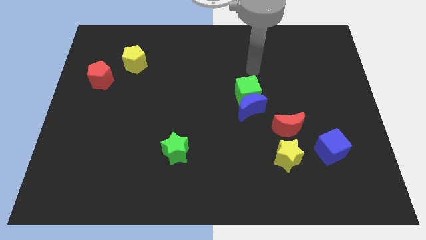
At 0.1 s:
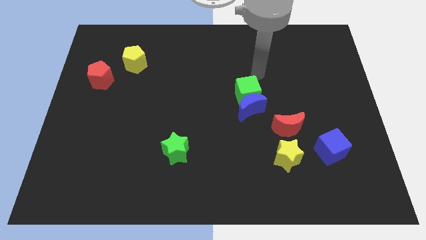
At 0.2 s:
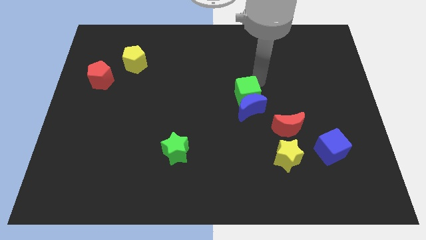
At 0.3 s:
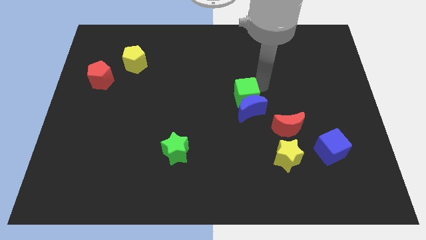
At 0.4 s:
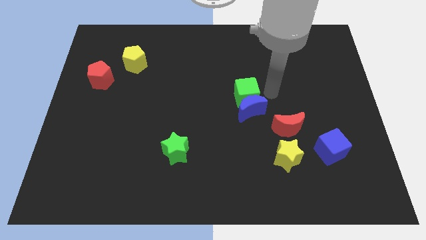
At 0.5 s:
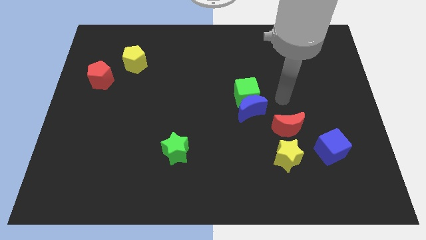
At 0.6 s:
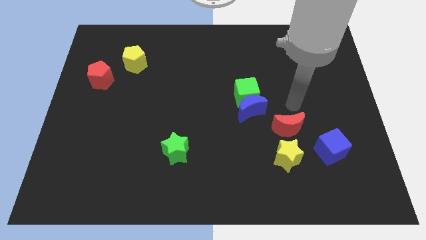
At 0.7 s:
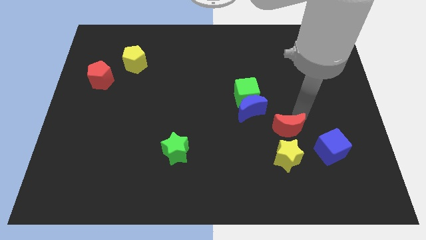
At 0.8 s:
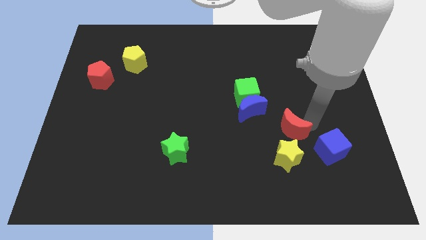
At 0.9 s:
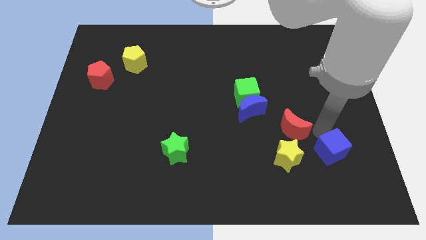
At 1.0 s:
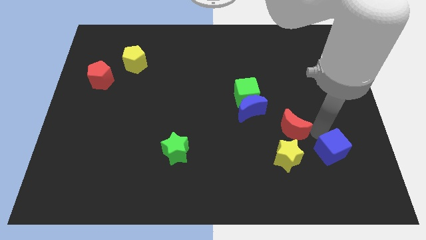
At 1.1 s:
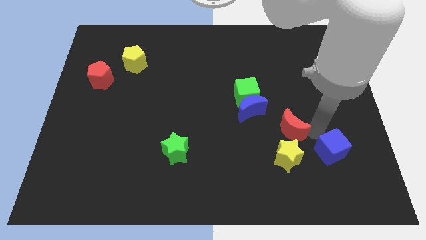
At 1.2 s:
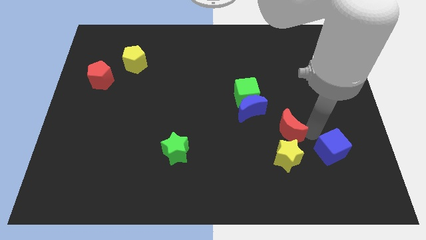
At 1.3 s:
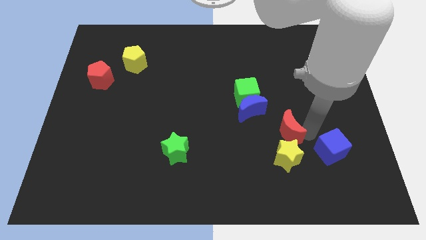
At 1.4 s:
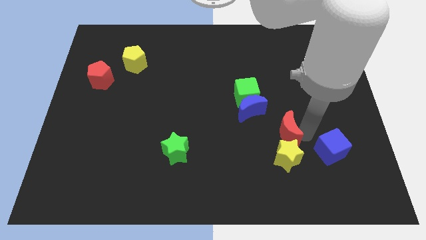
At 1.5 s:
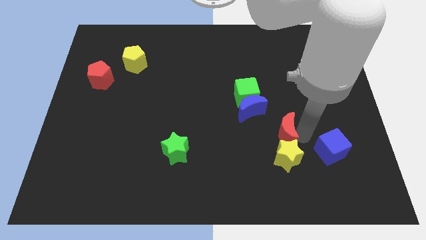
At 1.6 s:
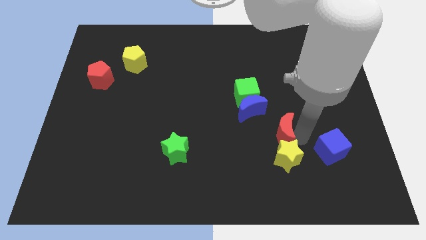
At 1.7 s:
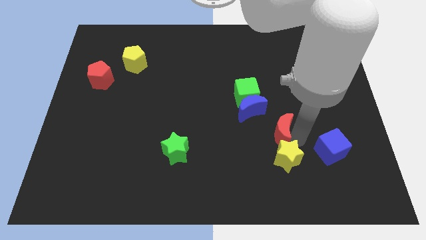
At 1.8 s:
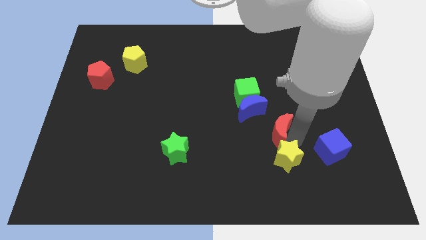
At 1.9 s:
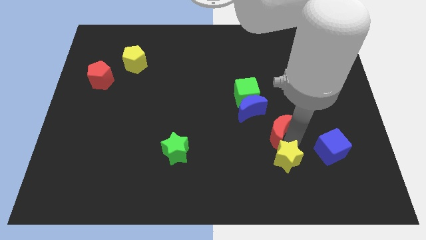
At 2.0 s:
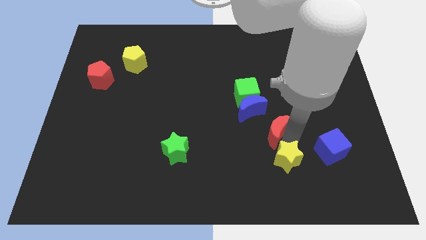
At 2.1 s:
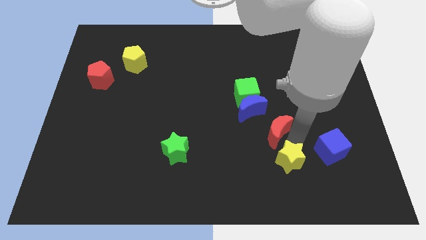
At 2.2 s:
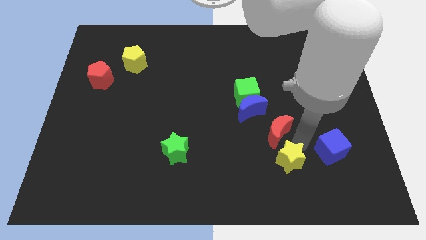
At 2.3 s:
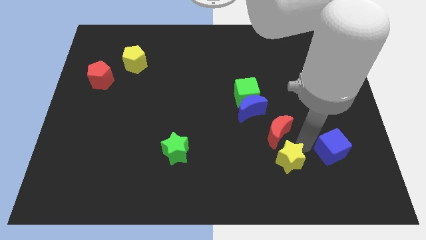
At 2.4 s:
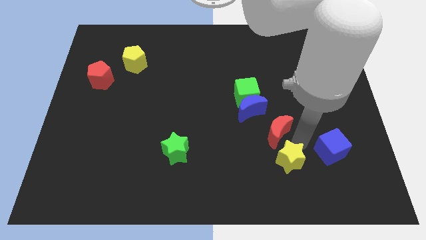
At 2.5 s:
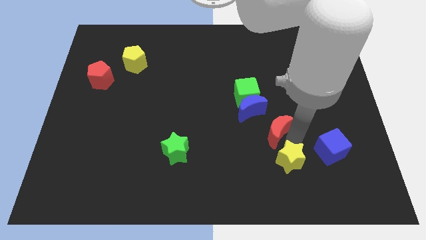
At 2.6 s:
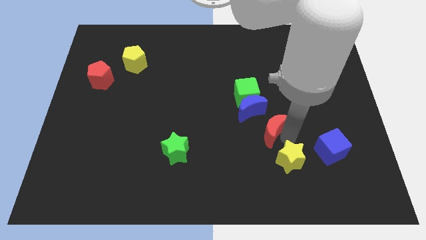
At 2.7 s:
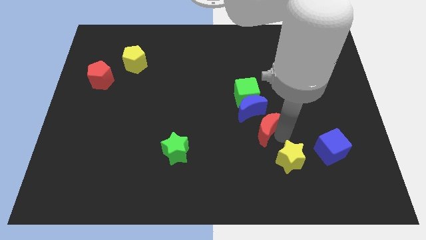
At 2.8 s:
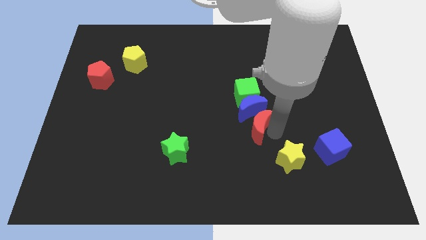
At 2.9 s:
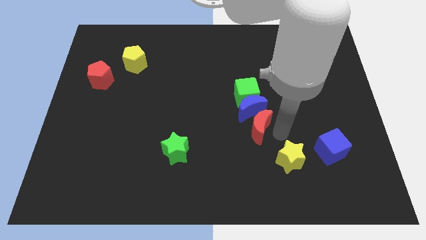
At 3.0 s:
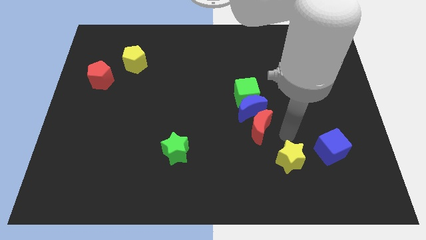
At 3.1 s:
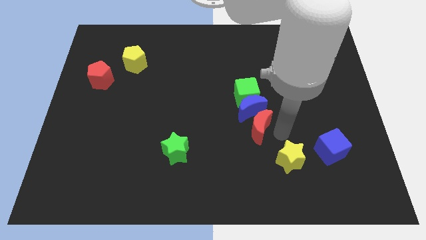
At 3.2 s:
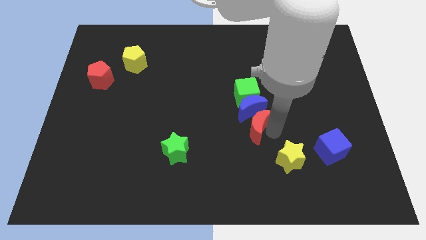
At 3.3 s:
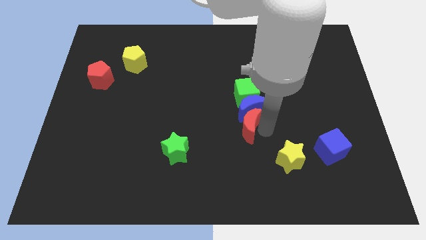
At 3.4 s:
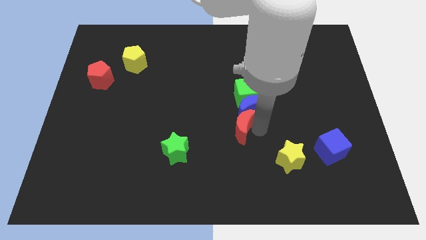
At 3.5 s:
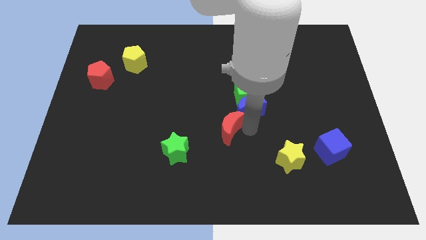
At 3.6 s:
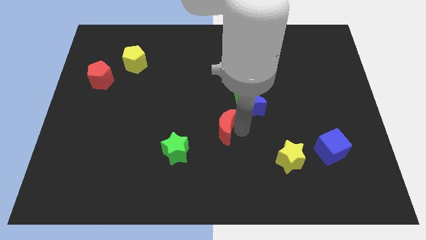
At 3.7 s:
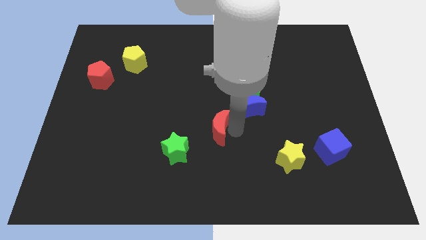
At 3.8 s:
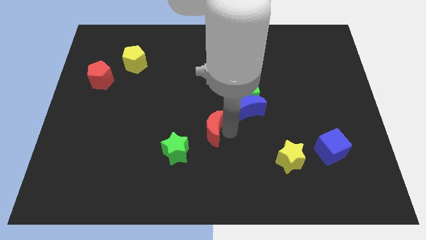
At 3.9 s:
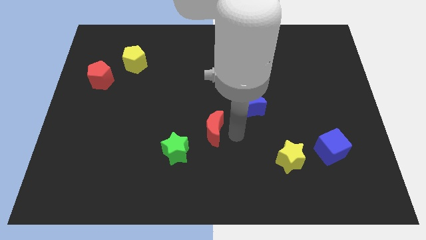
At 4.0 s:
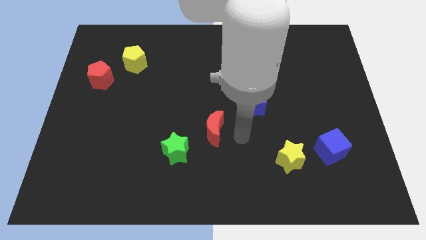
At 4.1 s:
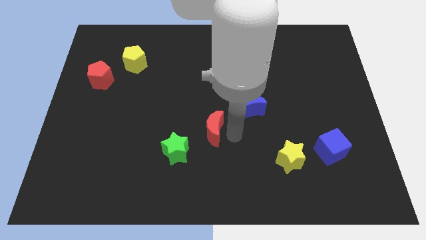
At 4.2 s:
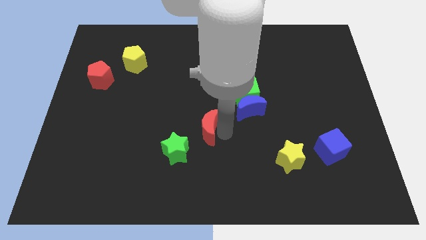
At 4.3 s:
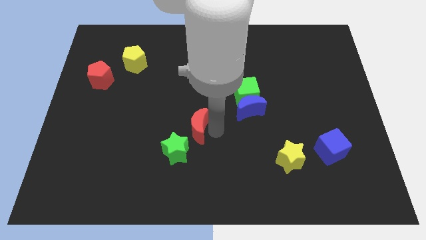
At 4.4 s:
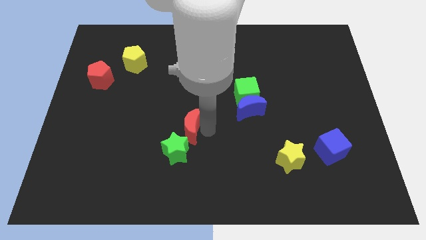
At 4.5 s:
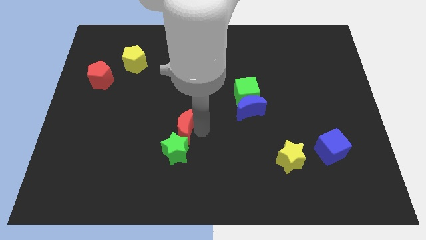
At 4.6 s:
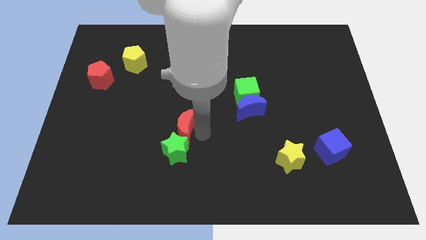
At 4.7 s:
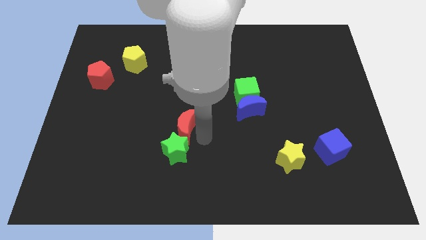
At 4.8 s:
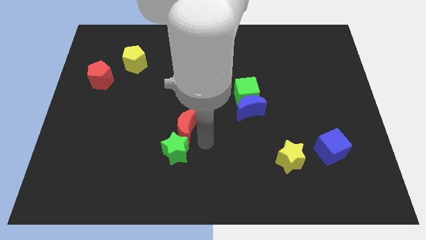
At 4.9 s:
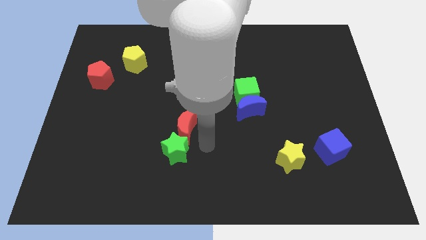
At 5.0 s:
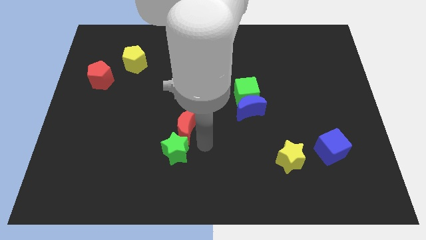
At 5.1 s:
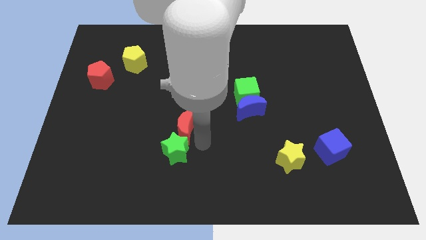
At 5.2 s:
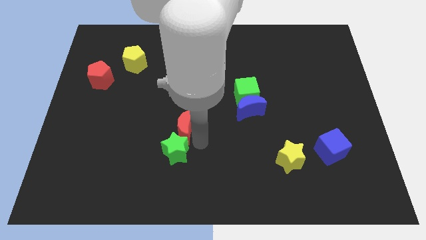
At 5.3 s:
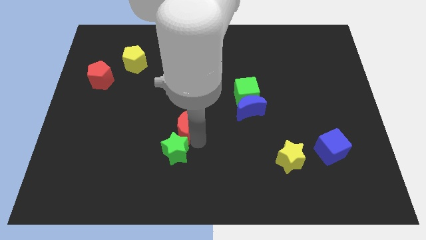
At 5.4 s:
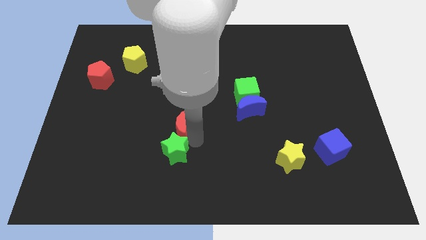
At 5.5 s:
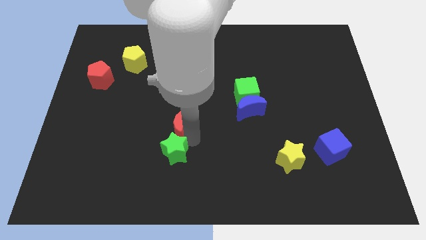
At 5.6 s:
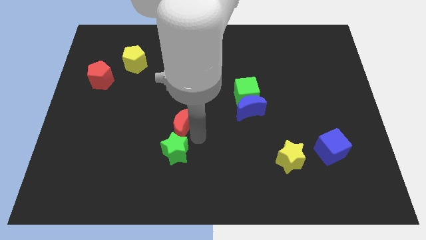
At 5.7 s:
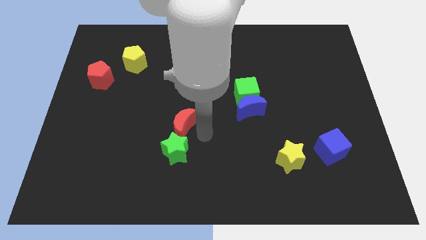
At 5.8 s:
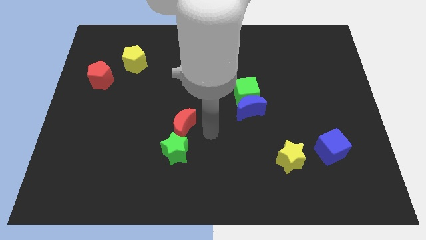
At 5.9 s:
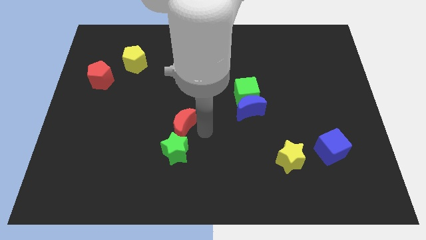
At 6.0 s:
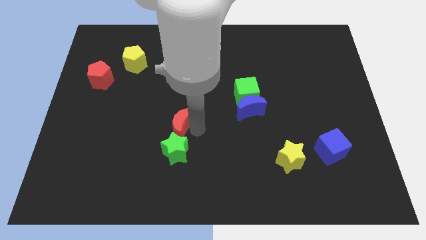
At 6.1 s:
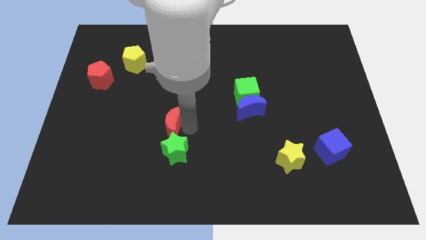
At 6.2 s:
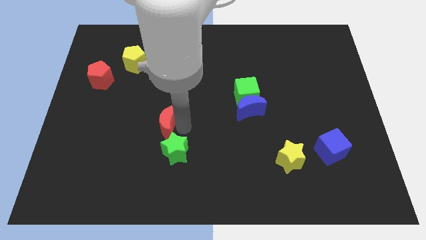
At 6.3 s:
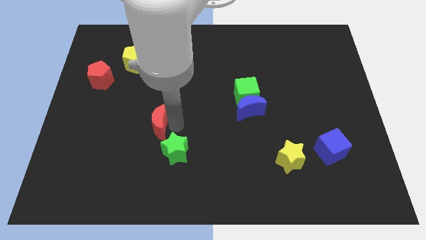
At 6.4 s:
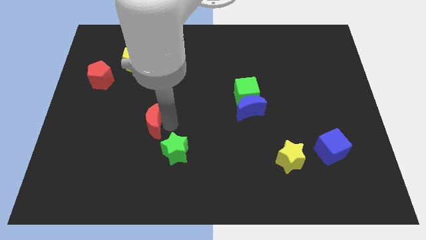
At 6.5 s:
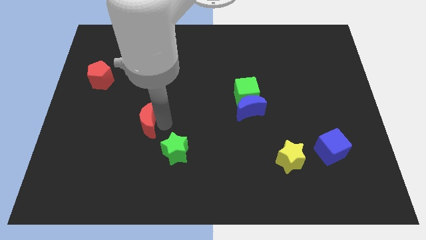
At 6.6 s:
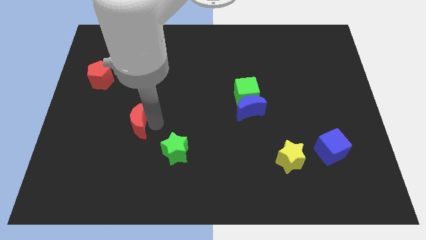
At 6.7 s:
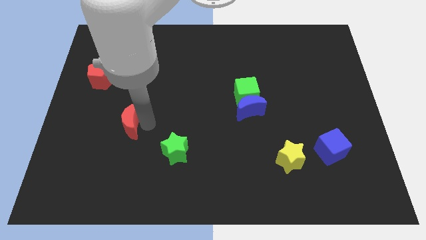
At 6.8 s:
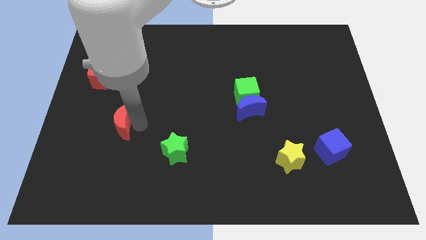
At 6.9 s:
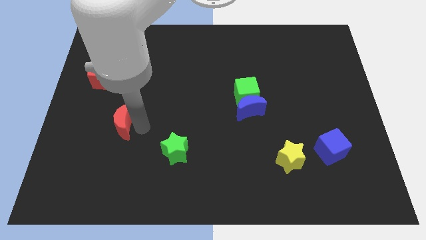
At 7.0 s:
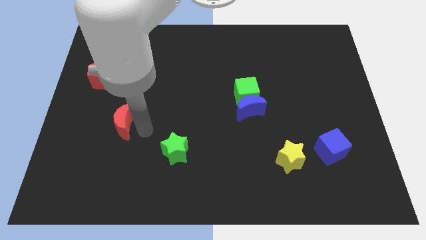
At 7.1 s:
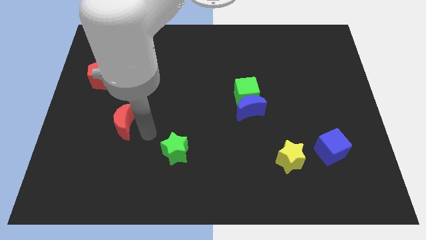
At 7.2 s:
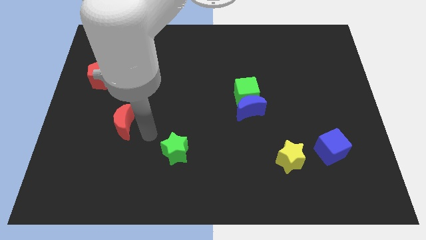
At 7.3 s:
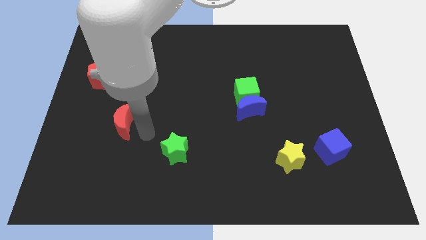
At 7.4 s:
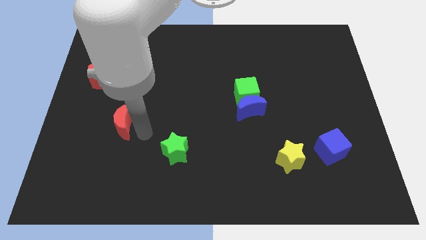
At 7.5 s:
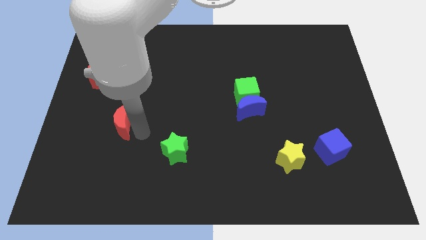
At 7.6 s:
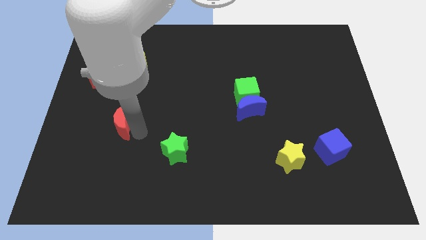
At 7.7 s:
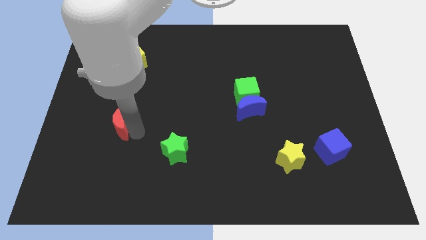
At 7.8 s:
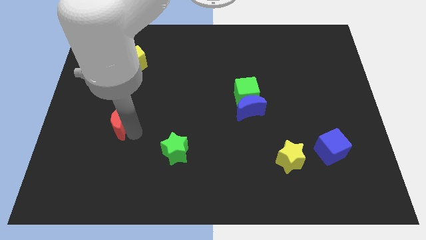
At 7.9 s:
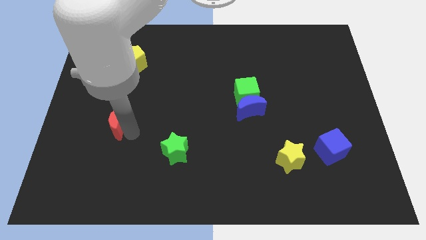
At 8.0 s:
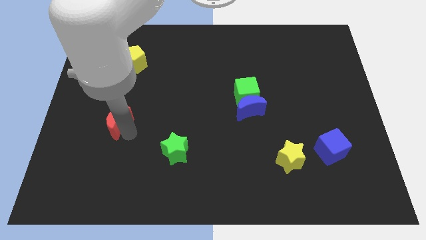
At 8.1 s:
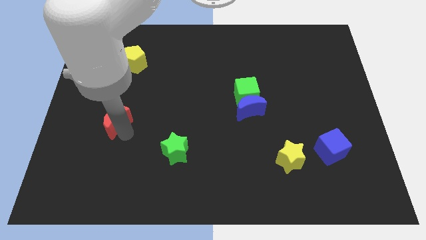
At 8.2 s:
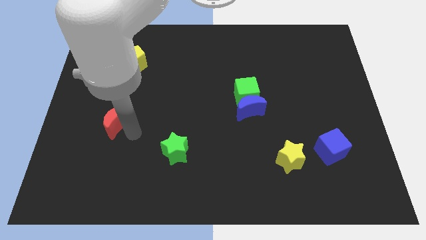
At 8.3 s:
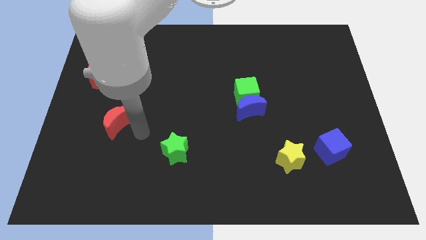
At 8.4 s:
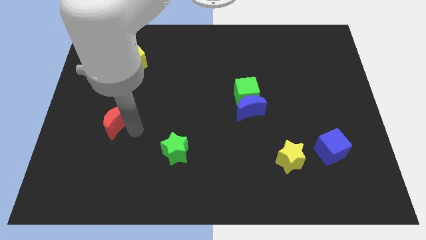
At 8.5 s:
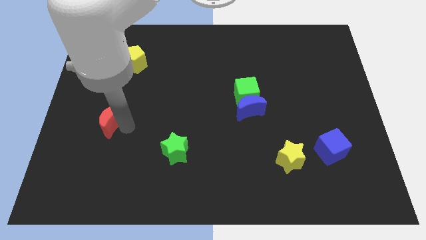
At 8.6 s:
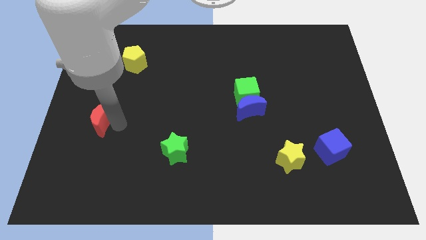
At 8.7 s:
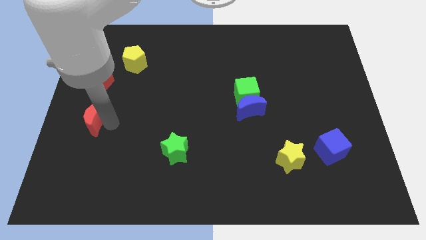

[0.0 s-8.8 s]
move the red moon to the left side of the board
